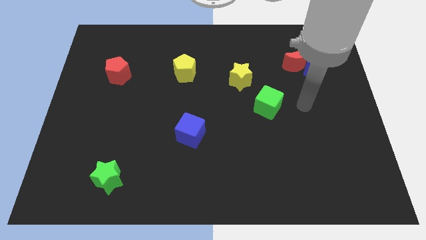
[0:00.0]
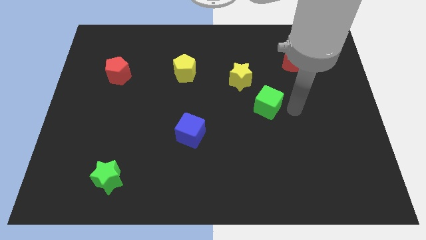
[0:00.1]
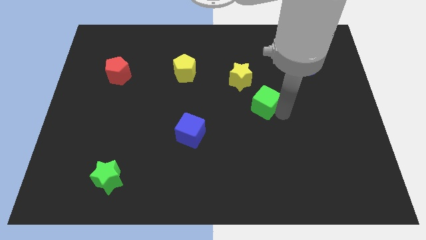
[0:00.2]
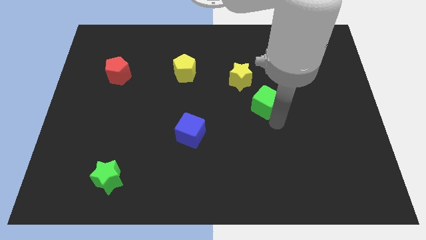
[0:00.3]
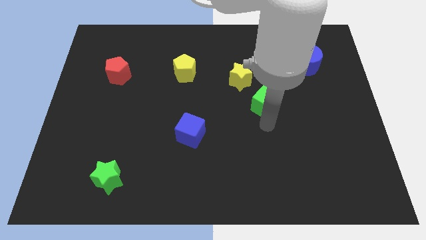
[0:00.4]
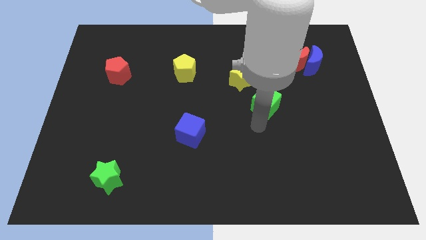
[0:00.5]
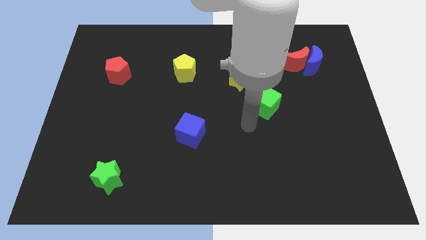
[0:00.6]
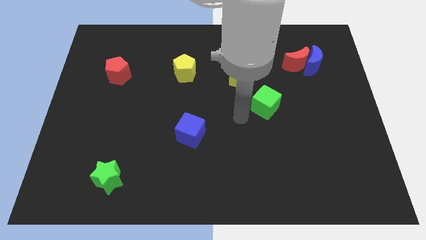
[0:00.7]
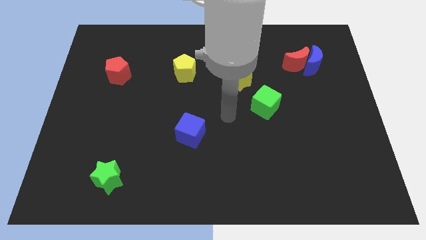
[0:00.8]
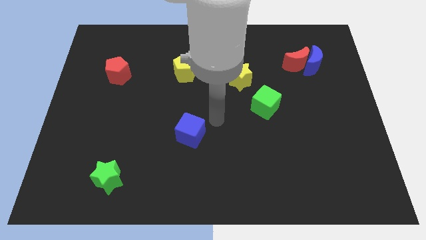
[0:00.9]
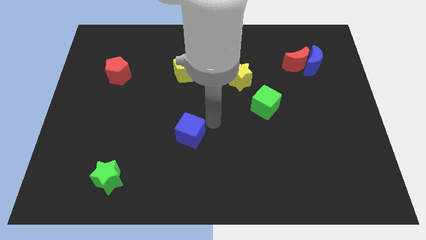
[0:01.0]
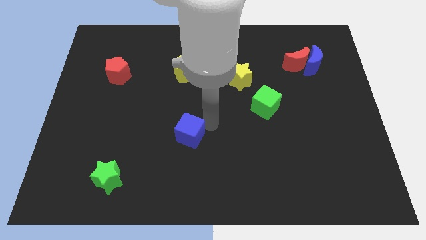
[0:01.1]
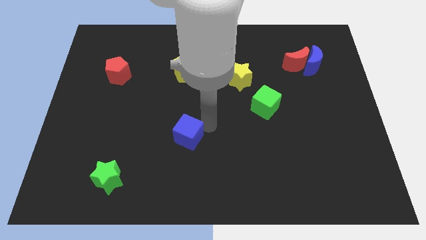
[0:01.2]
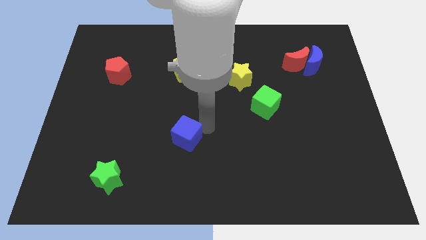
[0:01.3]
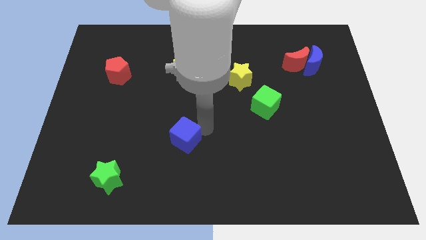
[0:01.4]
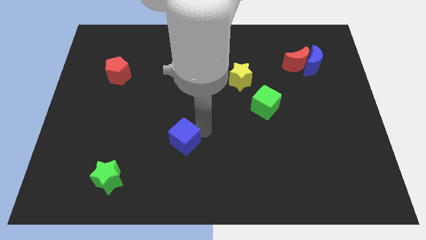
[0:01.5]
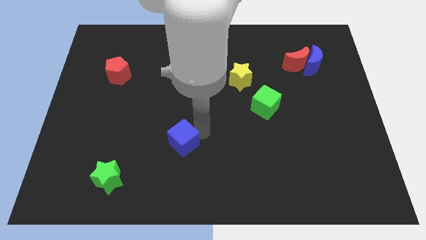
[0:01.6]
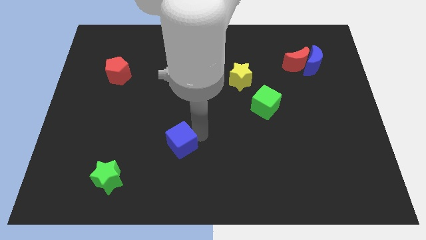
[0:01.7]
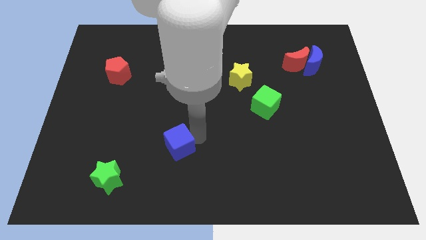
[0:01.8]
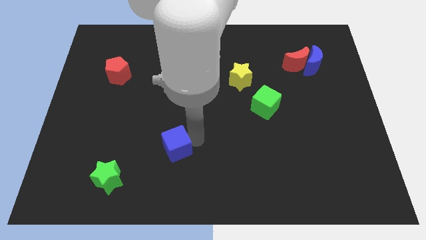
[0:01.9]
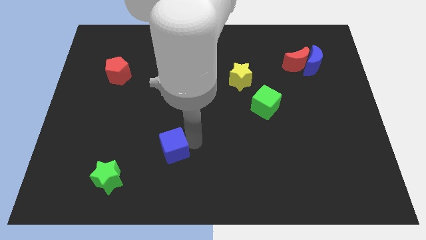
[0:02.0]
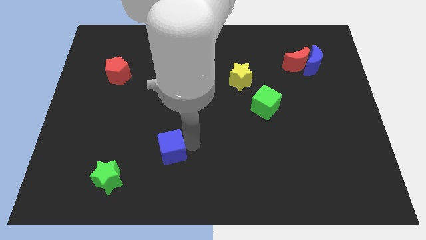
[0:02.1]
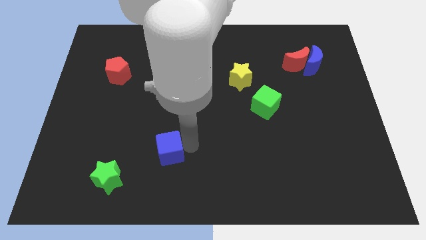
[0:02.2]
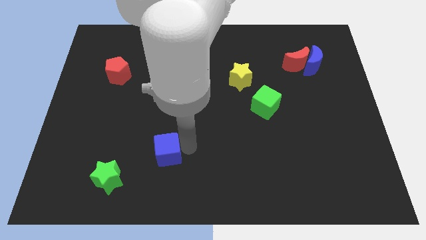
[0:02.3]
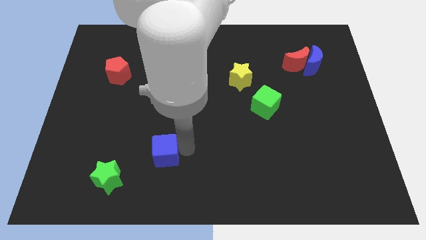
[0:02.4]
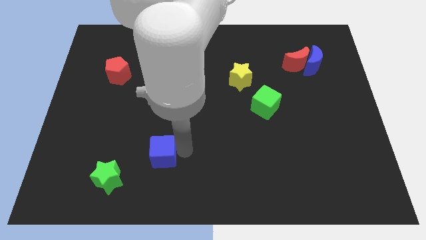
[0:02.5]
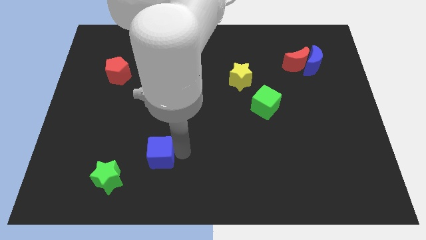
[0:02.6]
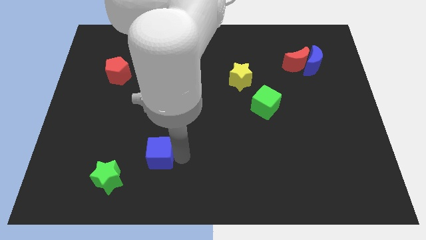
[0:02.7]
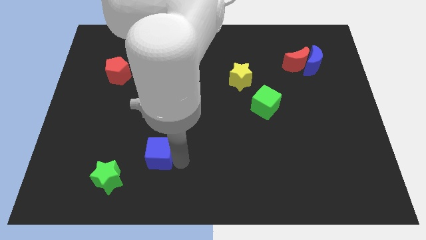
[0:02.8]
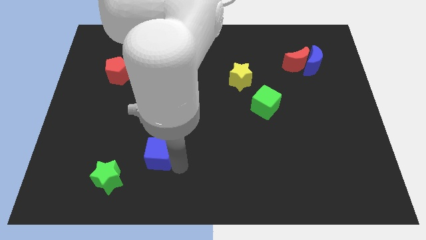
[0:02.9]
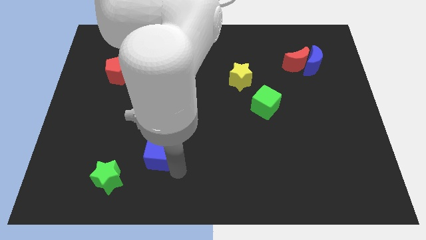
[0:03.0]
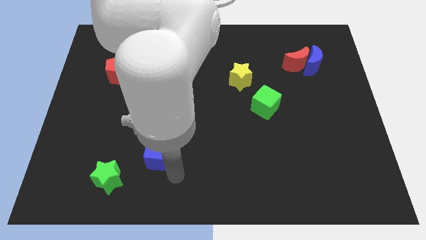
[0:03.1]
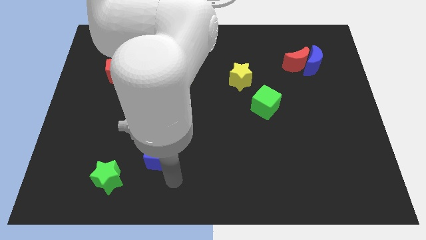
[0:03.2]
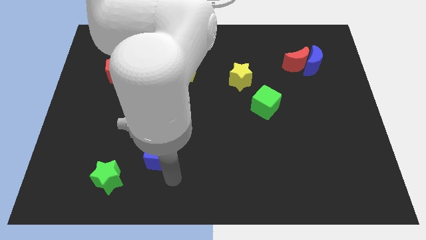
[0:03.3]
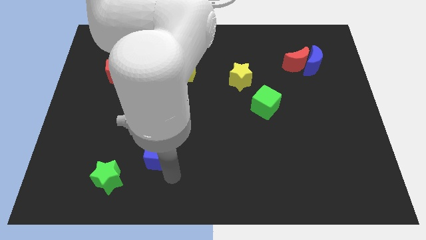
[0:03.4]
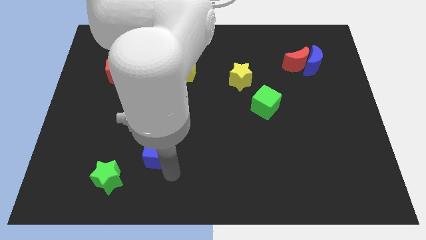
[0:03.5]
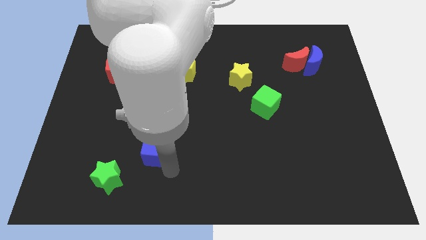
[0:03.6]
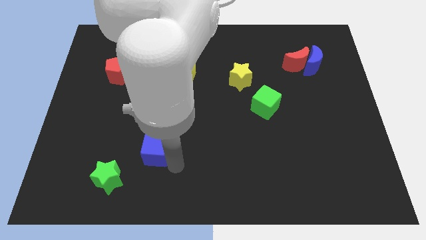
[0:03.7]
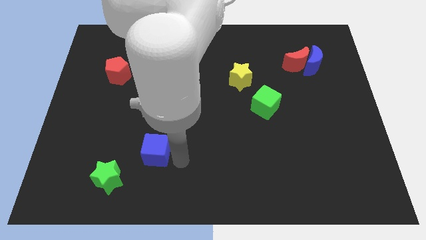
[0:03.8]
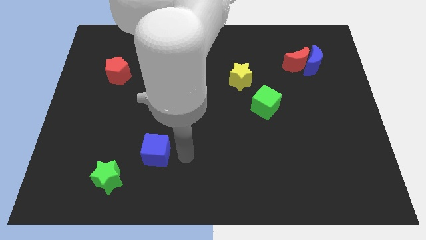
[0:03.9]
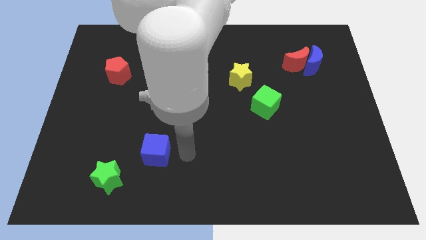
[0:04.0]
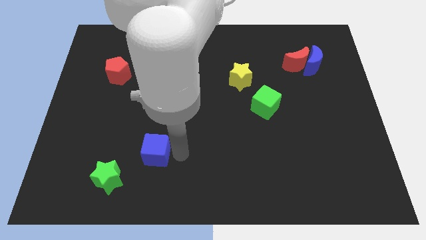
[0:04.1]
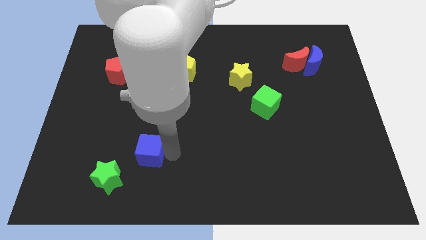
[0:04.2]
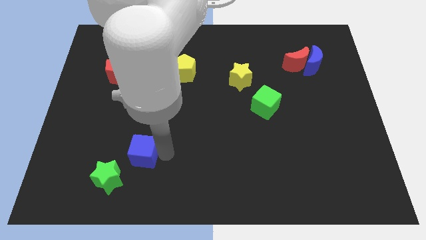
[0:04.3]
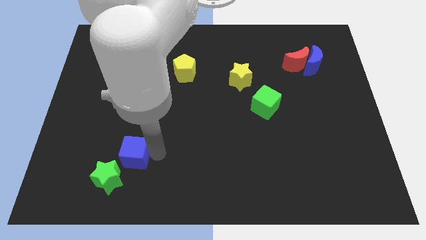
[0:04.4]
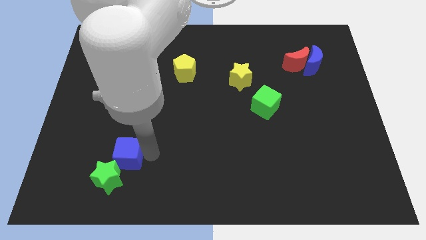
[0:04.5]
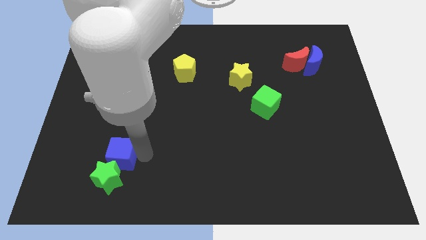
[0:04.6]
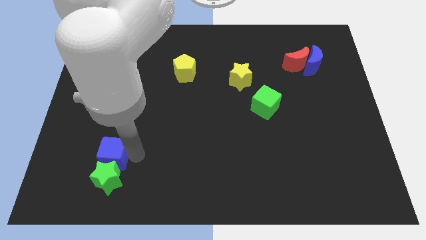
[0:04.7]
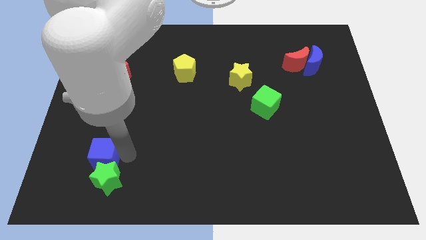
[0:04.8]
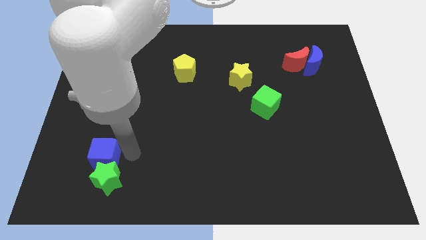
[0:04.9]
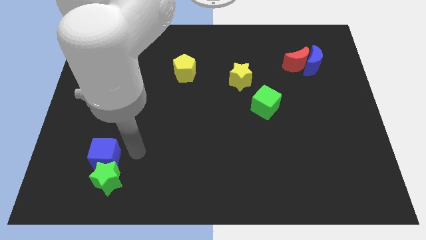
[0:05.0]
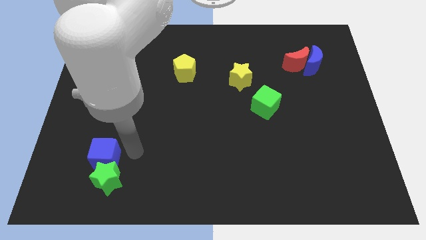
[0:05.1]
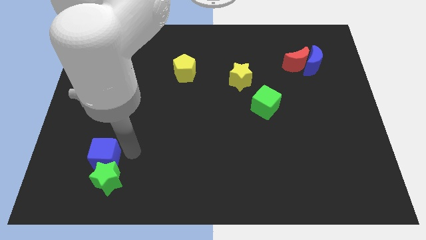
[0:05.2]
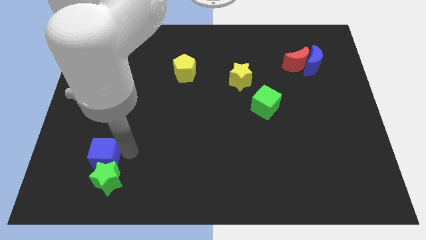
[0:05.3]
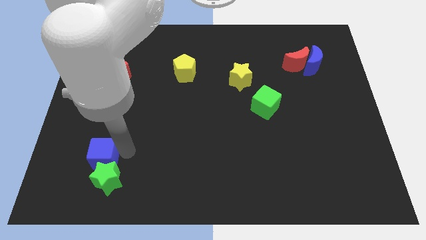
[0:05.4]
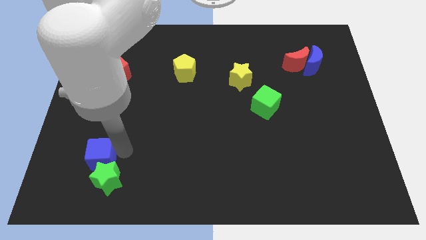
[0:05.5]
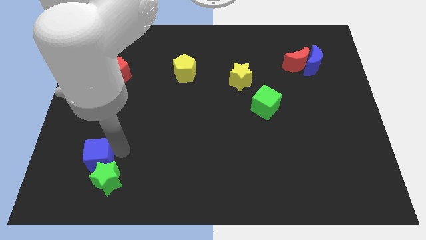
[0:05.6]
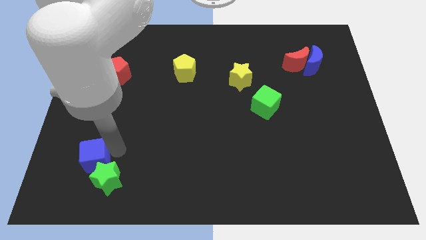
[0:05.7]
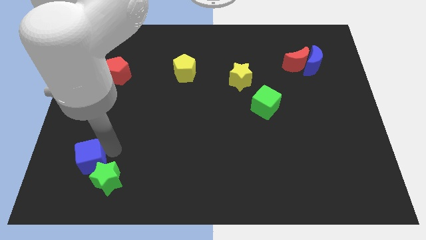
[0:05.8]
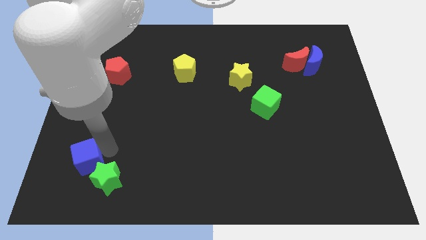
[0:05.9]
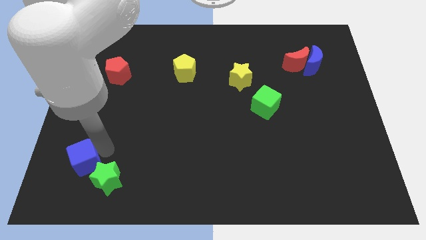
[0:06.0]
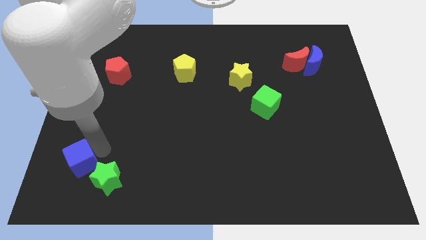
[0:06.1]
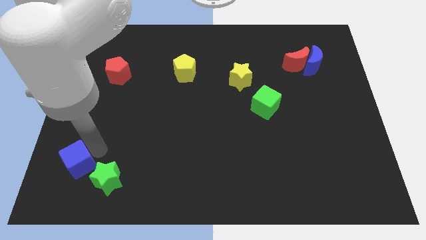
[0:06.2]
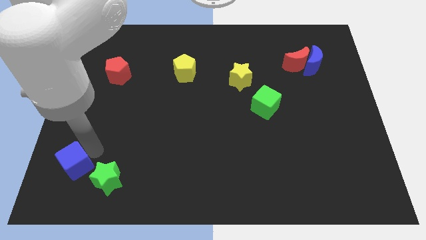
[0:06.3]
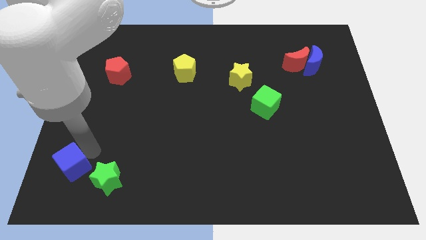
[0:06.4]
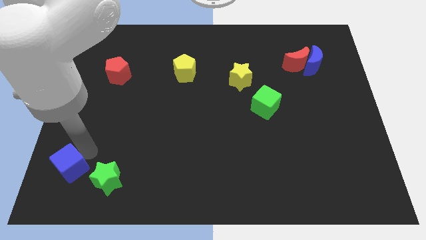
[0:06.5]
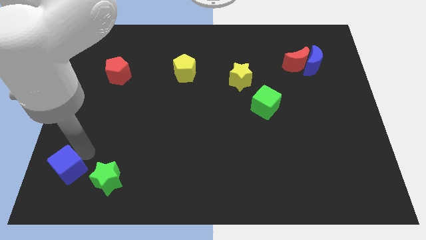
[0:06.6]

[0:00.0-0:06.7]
move the blue cube to the bottom left of the board
